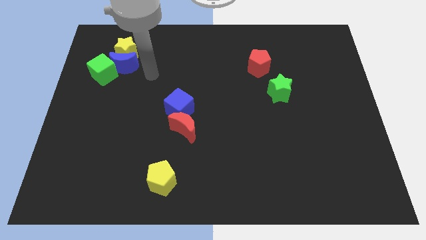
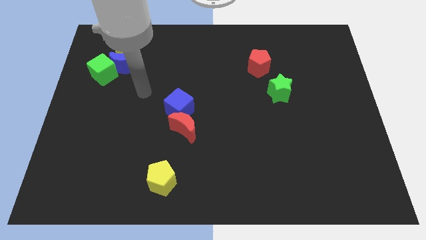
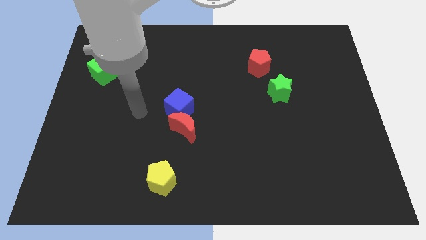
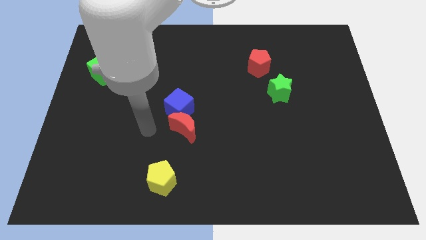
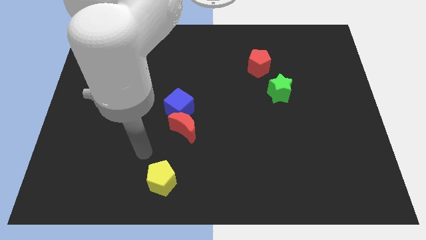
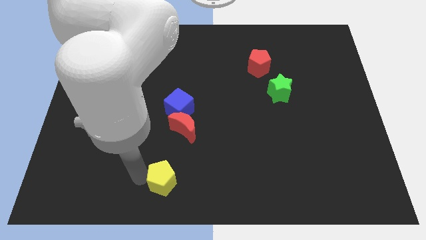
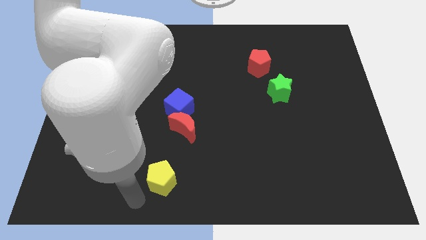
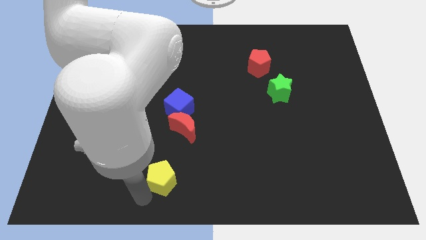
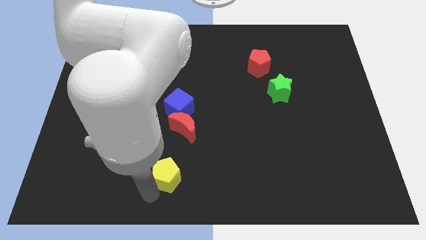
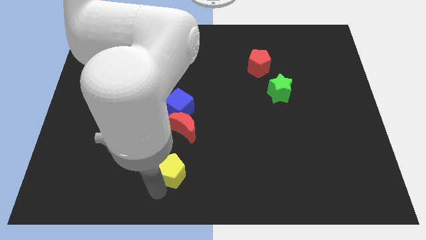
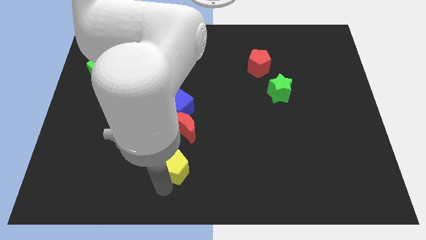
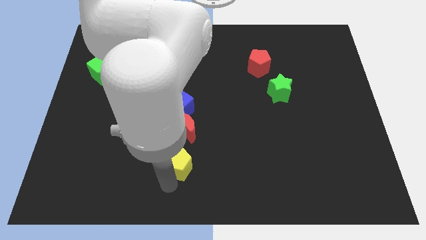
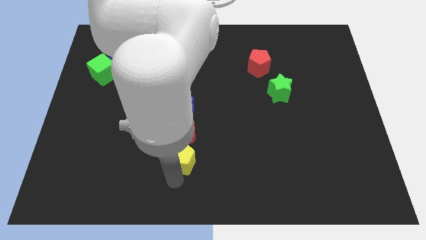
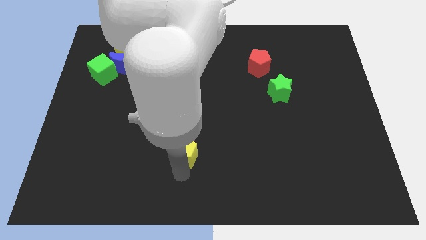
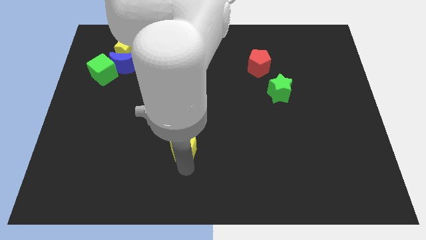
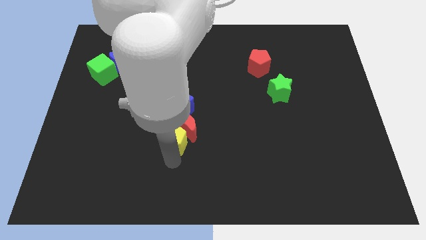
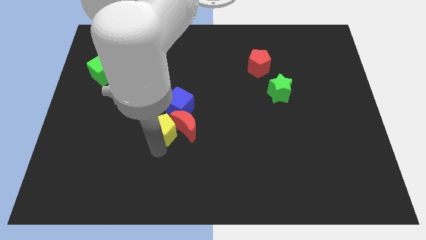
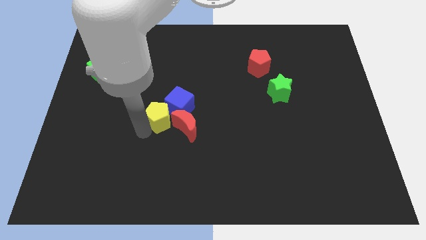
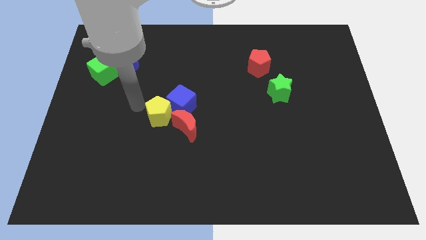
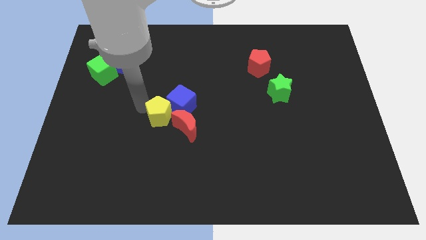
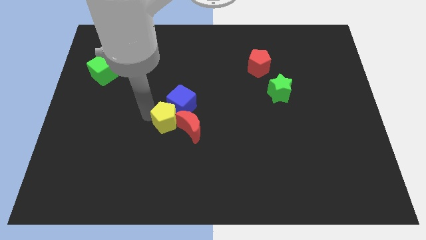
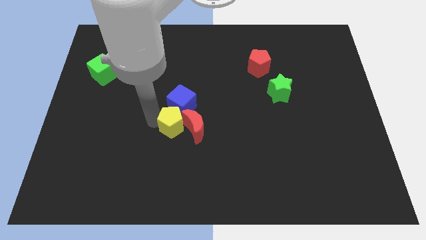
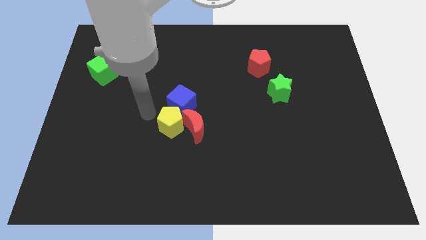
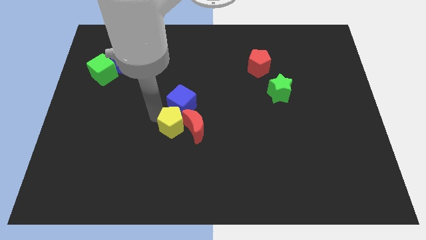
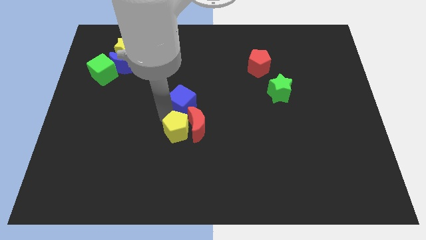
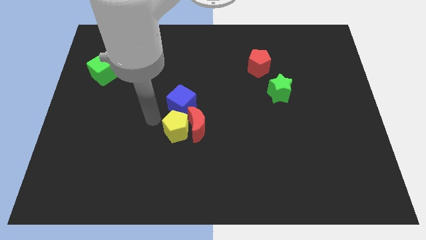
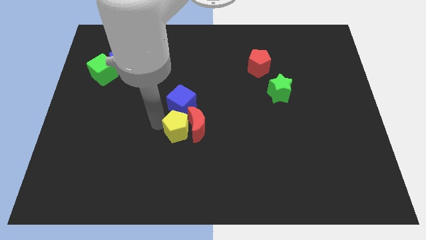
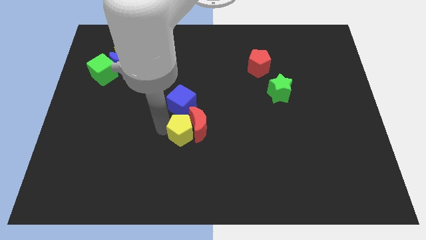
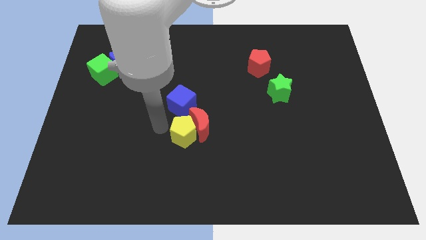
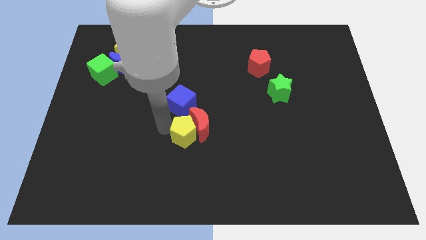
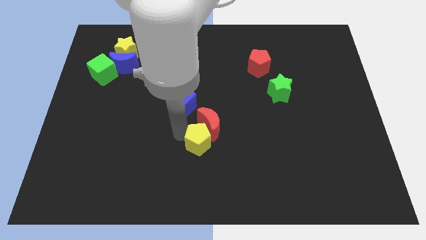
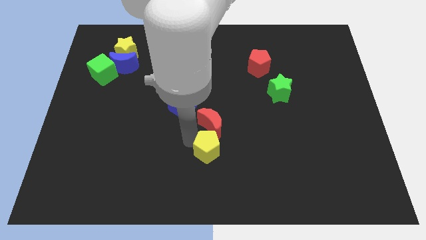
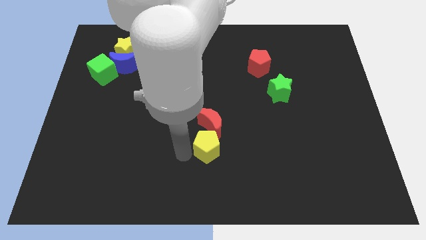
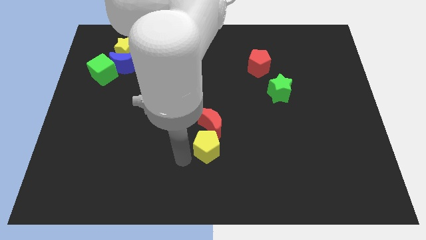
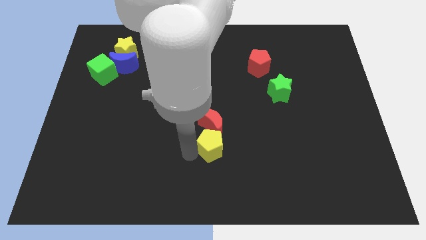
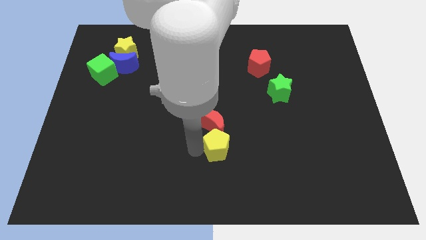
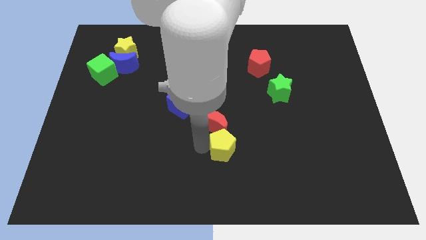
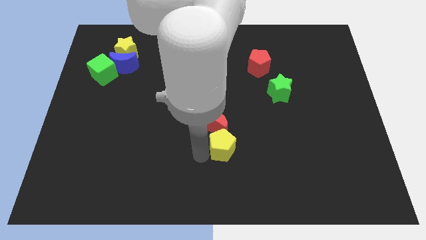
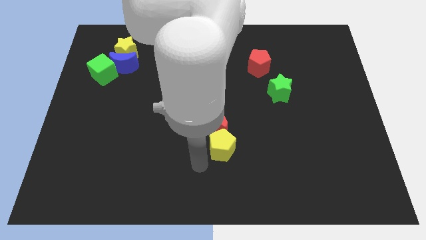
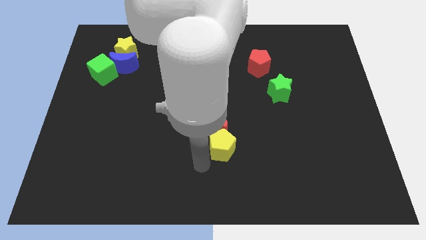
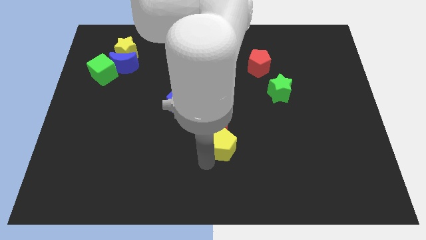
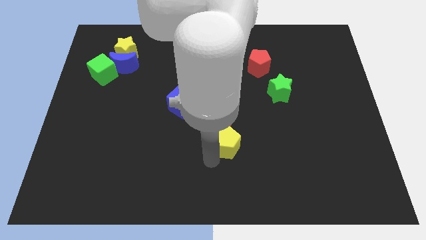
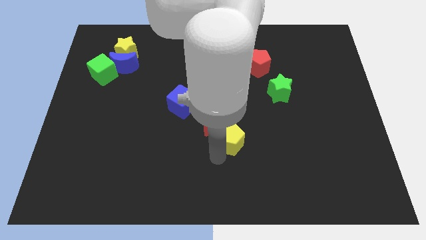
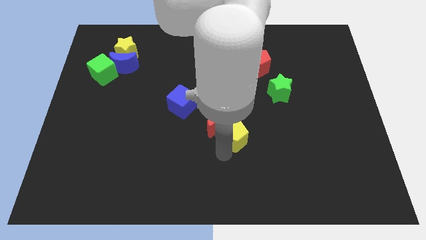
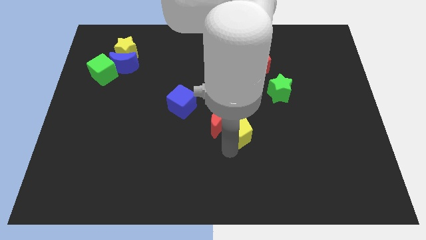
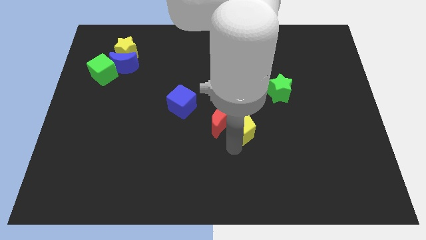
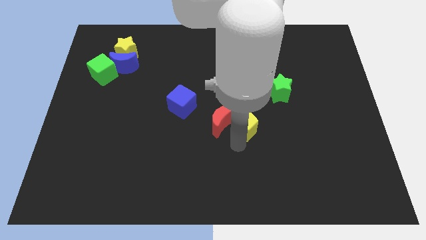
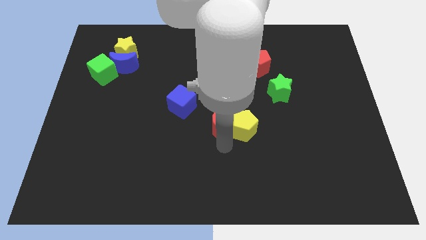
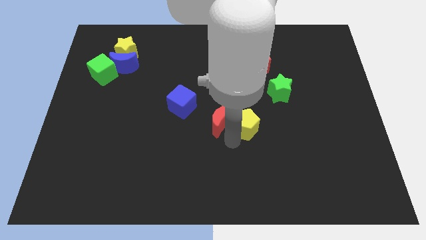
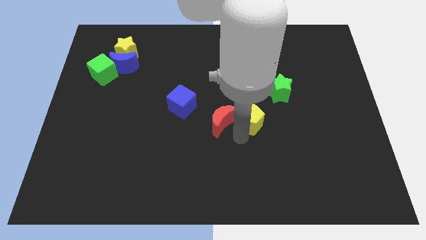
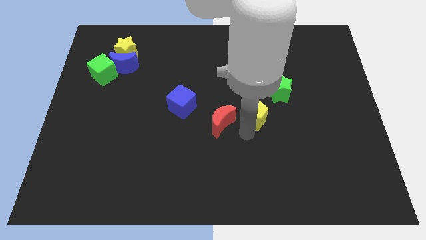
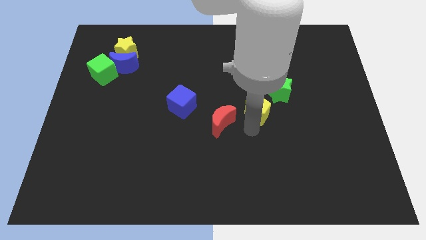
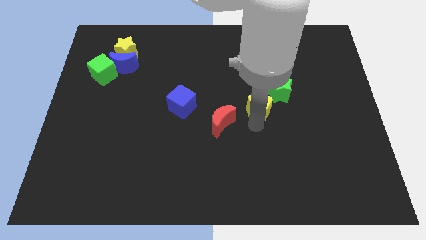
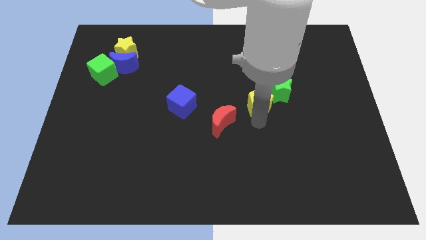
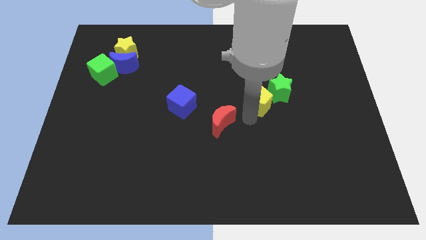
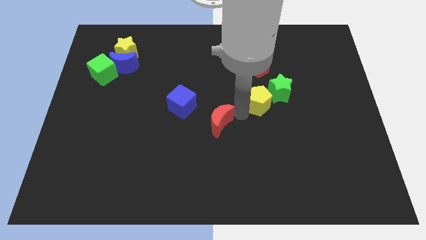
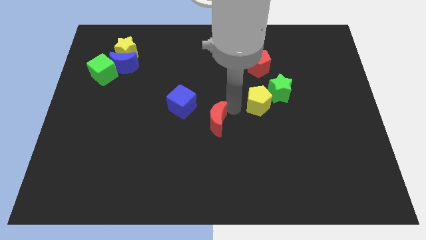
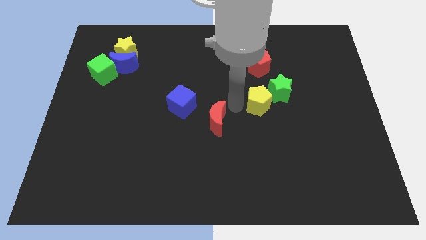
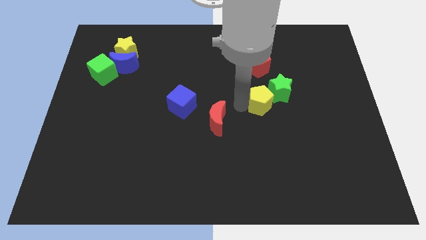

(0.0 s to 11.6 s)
push the yellow pentagon towards the green star

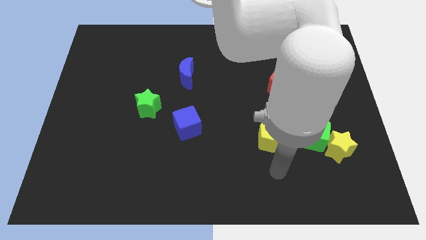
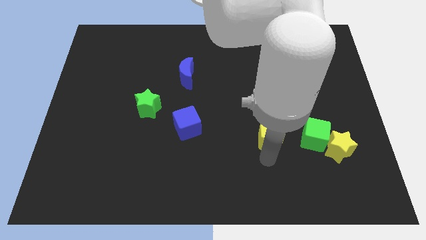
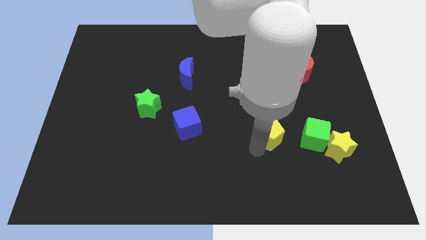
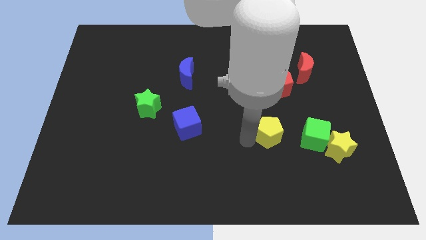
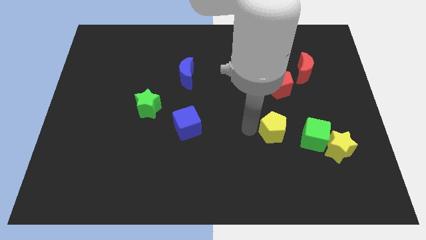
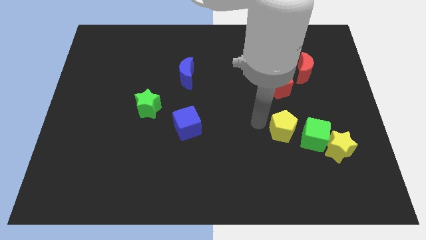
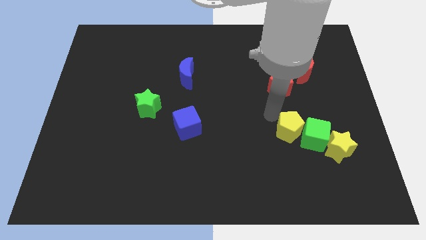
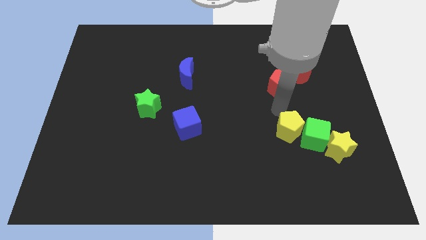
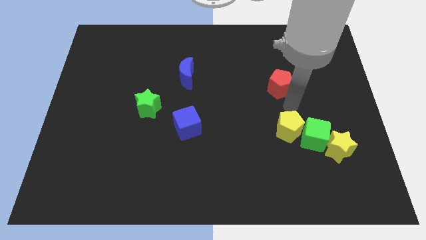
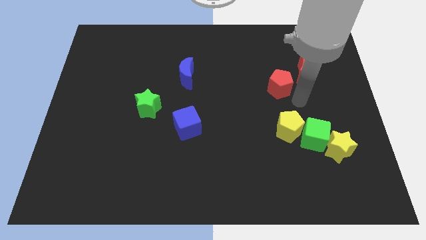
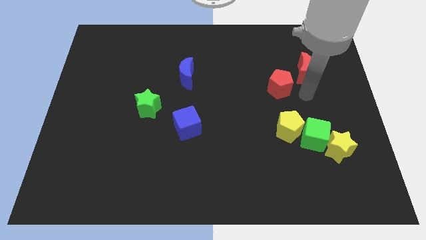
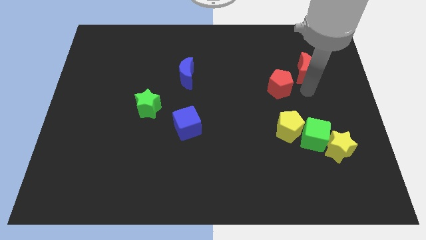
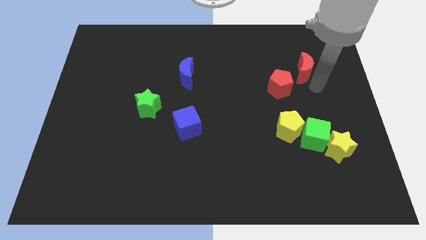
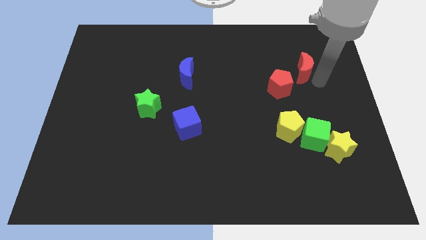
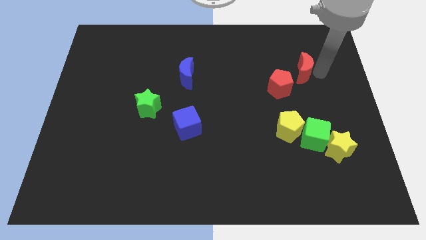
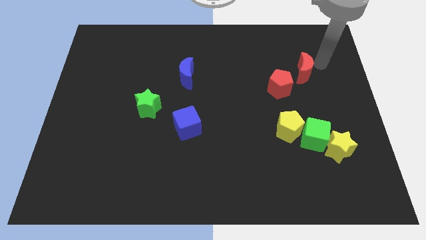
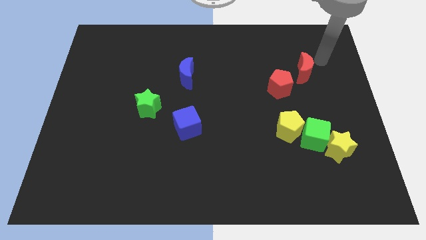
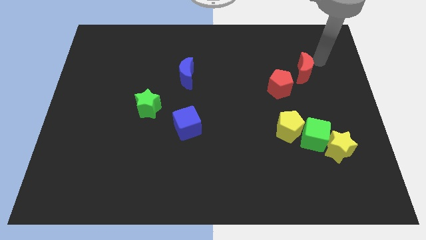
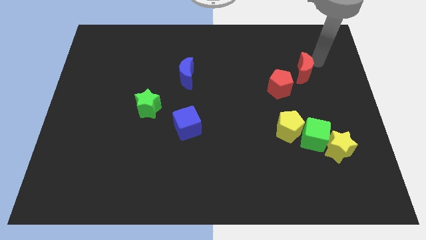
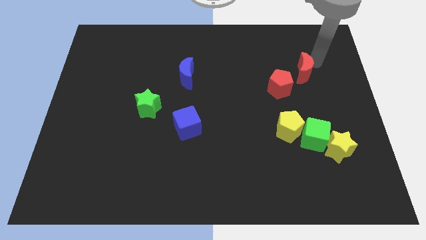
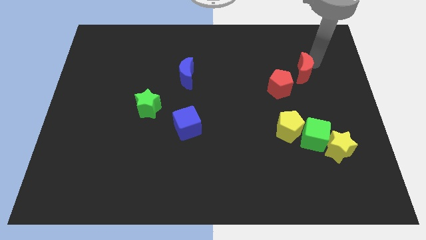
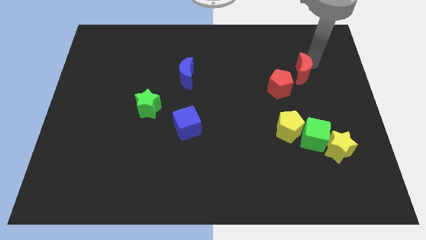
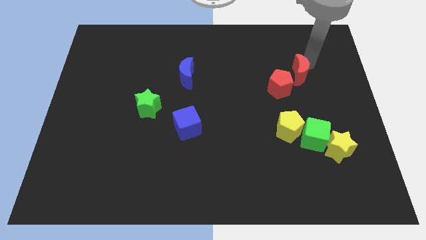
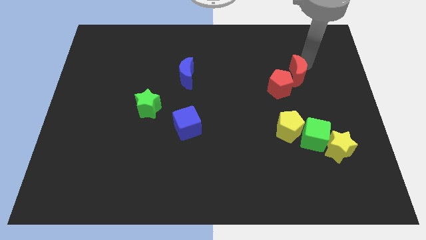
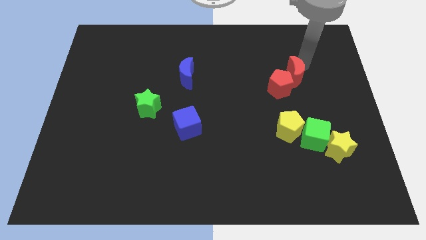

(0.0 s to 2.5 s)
push the red moon close to the red pentagon
